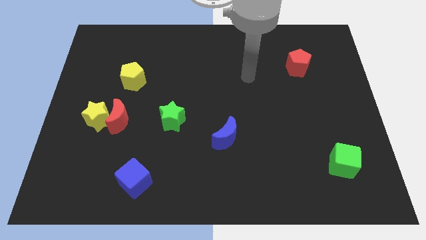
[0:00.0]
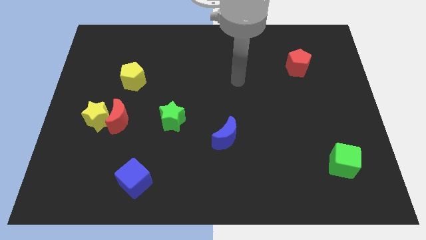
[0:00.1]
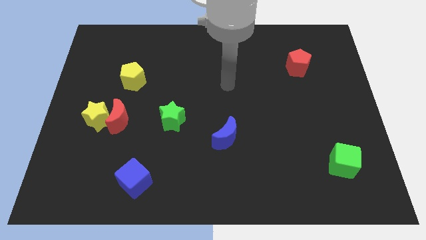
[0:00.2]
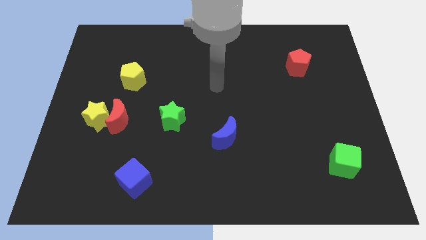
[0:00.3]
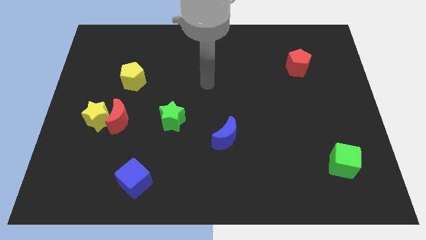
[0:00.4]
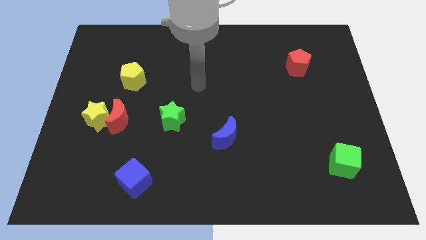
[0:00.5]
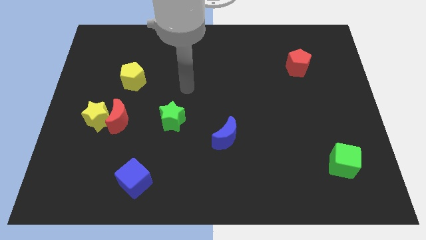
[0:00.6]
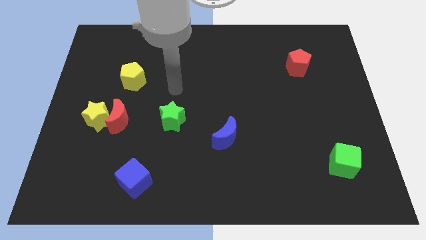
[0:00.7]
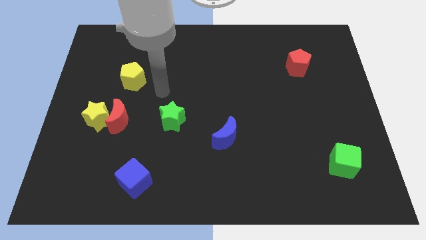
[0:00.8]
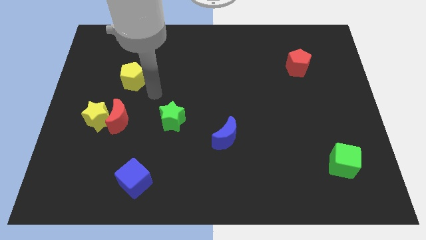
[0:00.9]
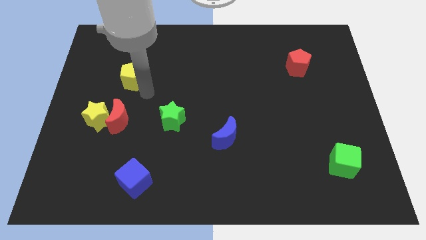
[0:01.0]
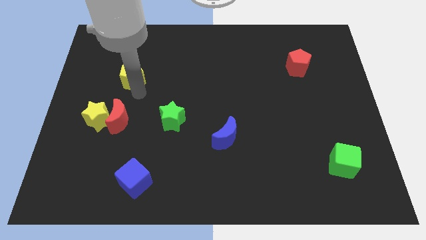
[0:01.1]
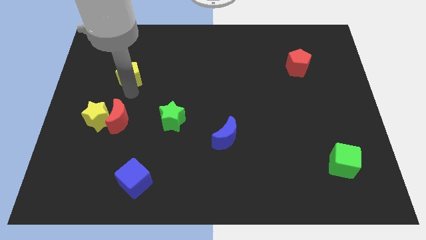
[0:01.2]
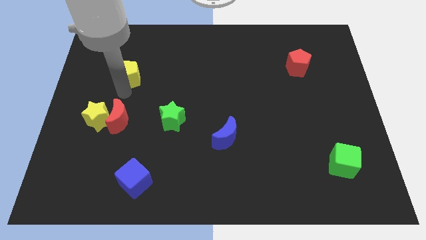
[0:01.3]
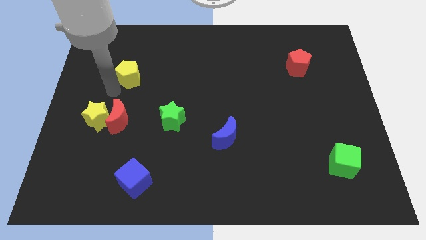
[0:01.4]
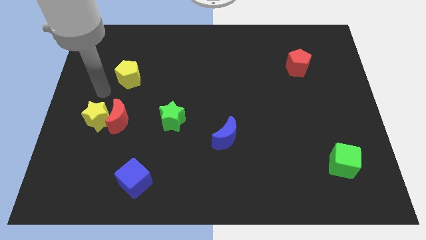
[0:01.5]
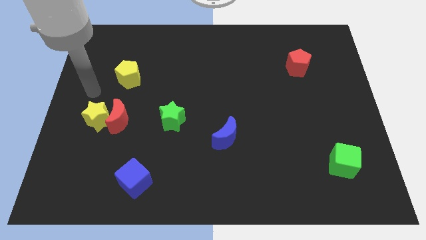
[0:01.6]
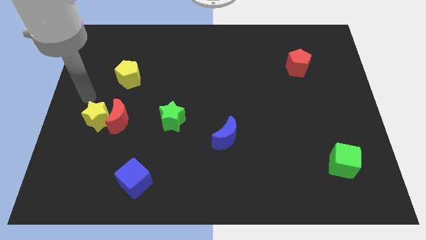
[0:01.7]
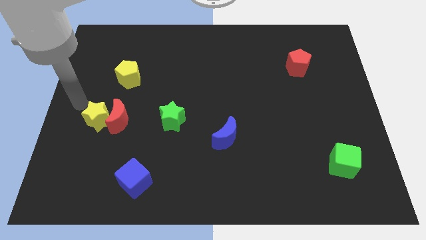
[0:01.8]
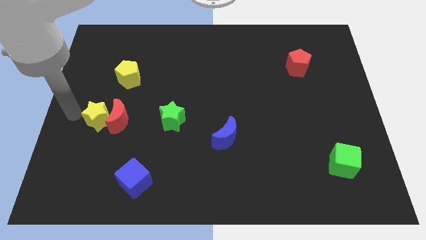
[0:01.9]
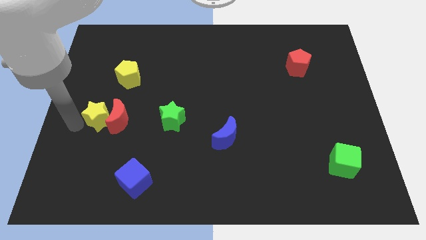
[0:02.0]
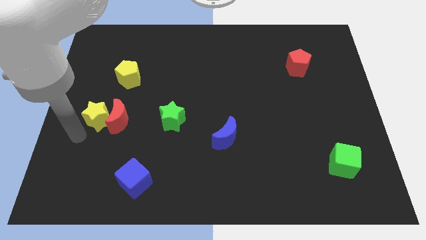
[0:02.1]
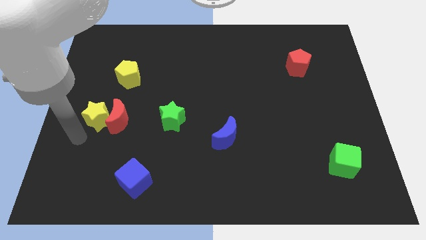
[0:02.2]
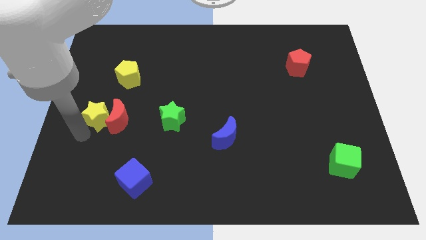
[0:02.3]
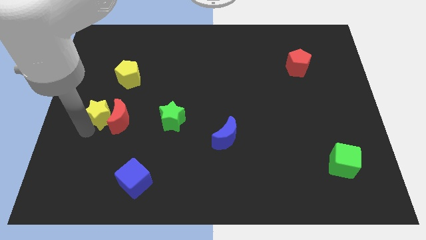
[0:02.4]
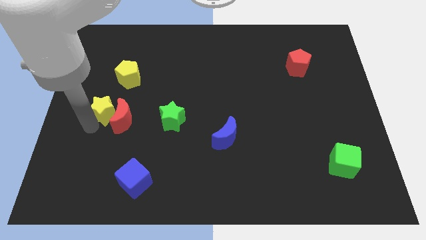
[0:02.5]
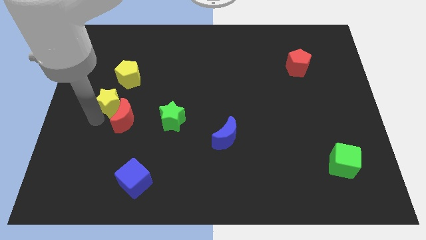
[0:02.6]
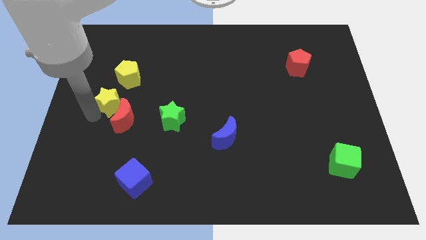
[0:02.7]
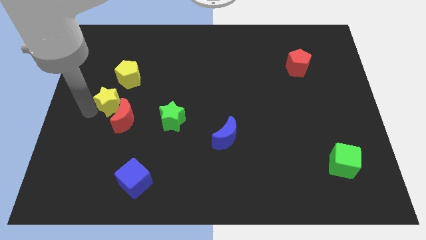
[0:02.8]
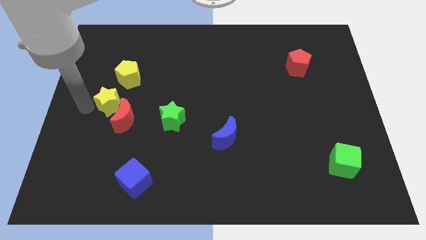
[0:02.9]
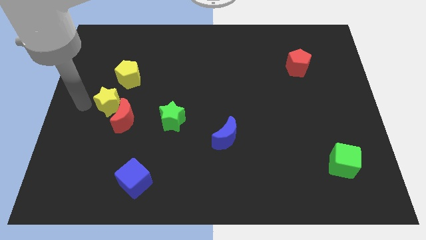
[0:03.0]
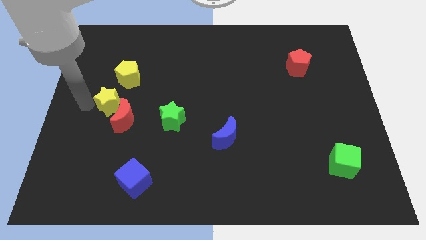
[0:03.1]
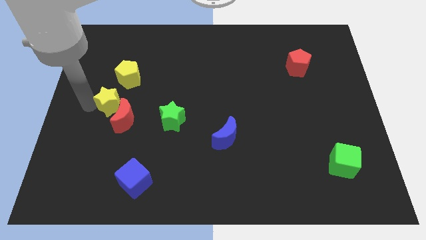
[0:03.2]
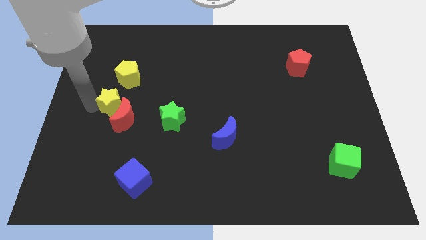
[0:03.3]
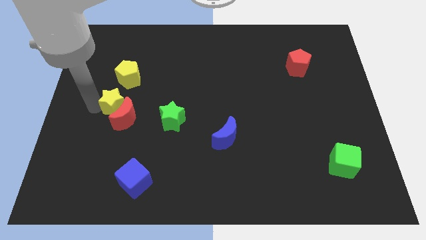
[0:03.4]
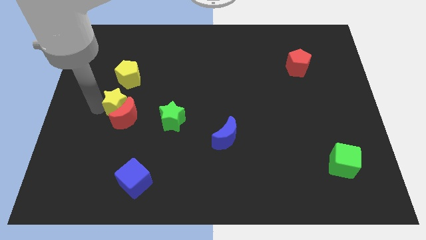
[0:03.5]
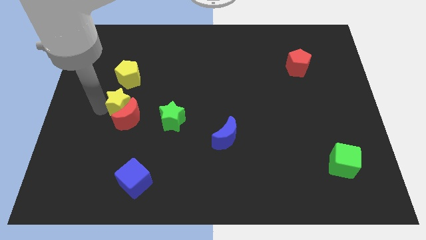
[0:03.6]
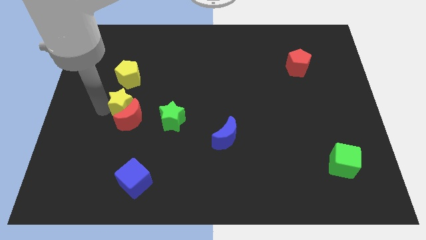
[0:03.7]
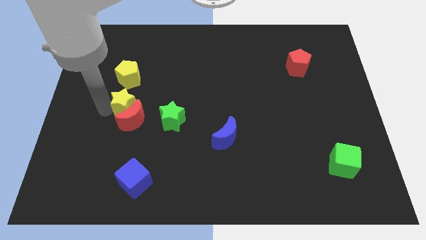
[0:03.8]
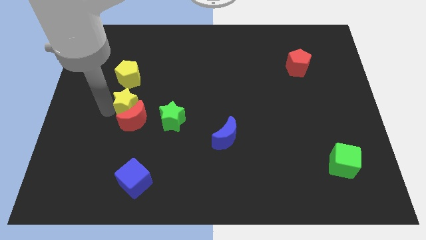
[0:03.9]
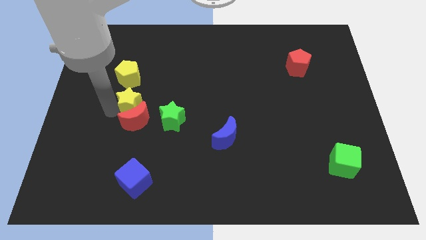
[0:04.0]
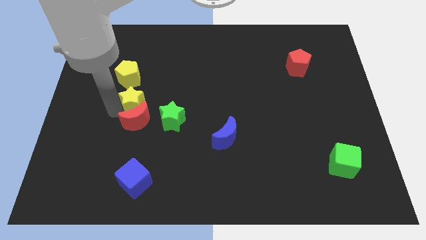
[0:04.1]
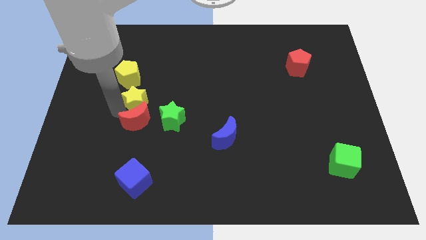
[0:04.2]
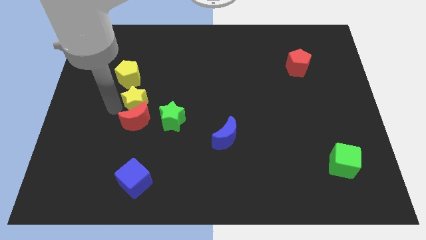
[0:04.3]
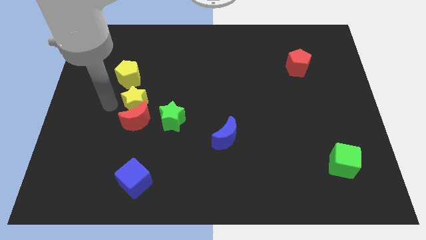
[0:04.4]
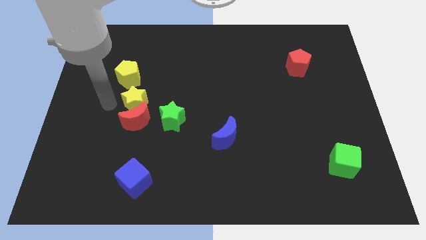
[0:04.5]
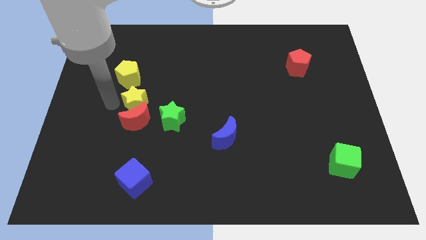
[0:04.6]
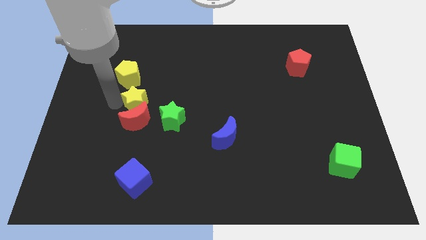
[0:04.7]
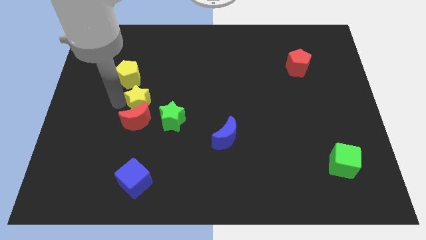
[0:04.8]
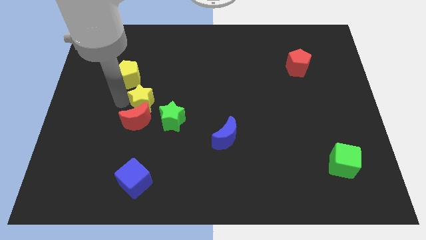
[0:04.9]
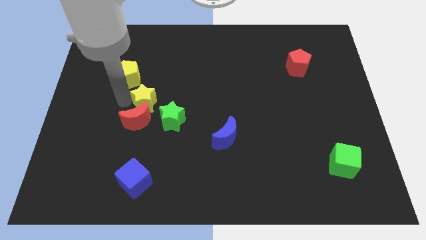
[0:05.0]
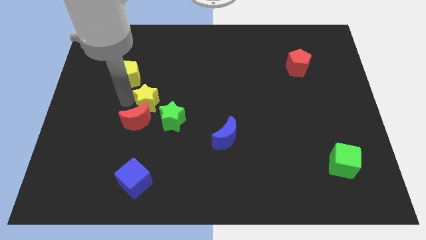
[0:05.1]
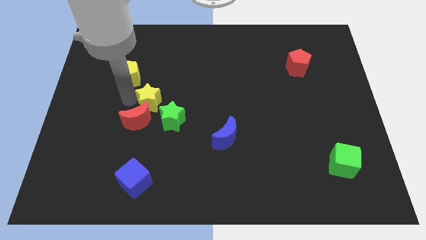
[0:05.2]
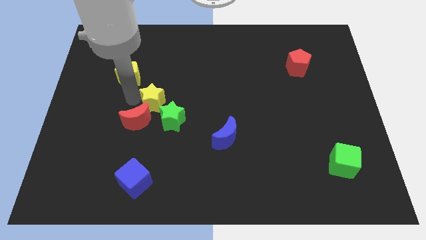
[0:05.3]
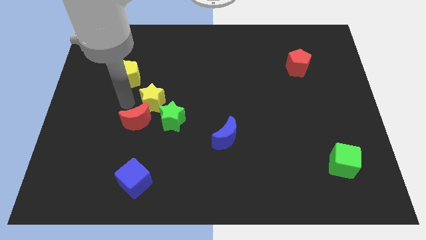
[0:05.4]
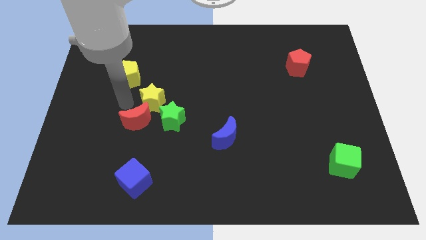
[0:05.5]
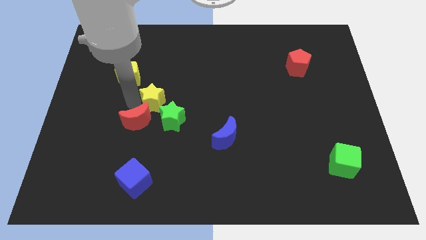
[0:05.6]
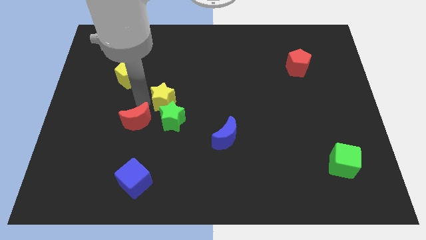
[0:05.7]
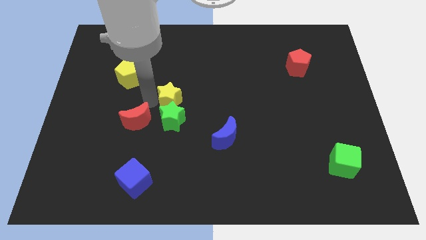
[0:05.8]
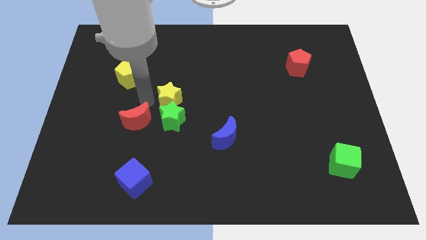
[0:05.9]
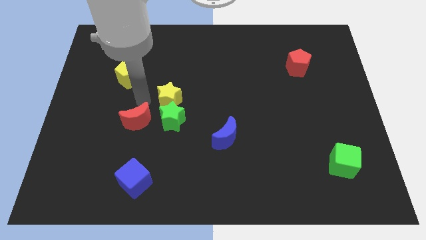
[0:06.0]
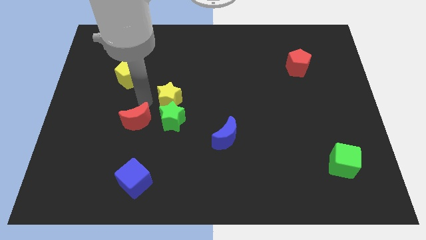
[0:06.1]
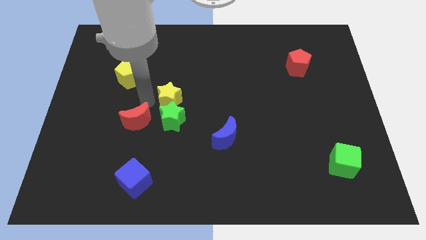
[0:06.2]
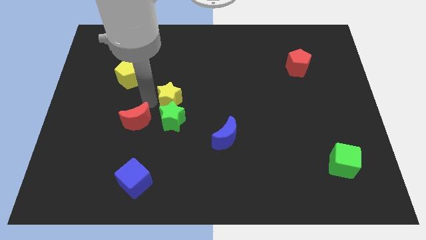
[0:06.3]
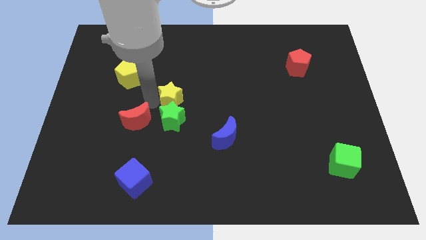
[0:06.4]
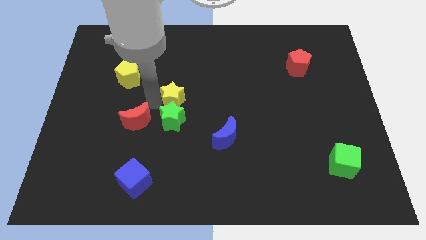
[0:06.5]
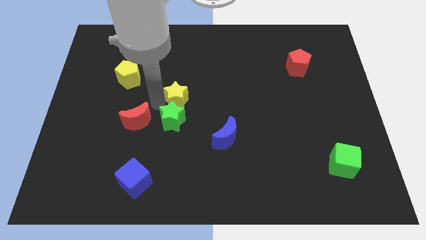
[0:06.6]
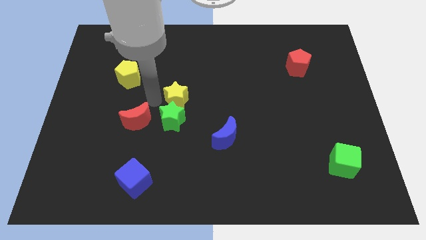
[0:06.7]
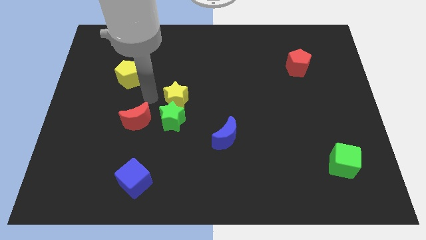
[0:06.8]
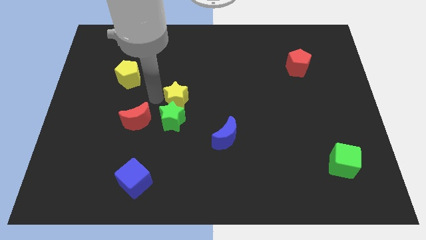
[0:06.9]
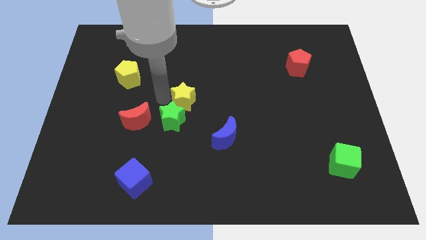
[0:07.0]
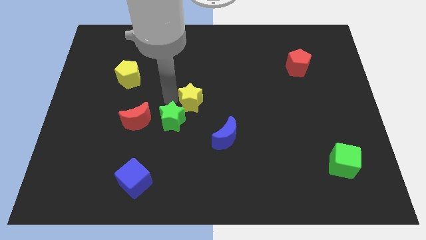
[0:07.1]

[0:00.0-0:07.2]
push the yellow star right

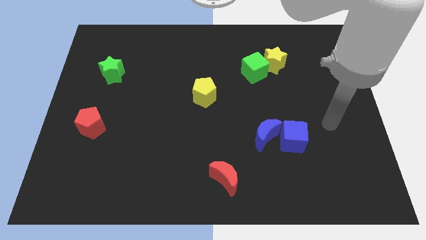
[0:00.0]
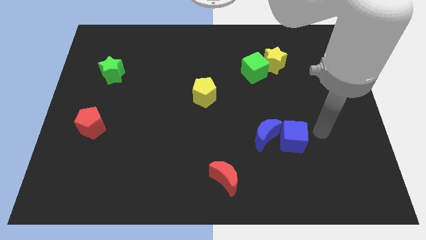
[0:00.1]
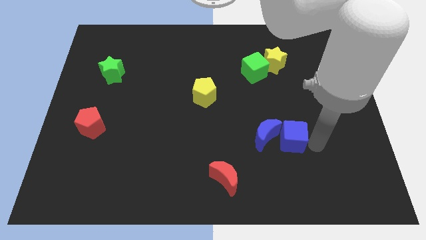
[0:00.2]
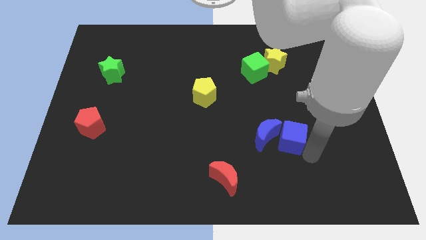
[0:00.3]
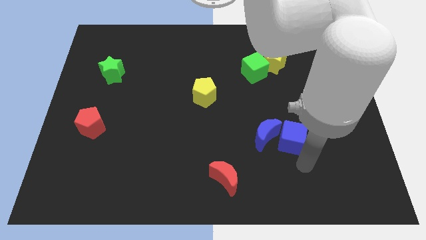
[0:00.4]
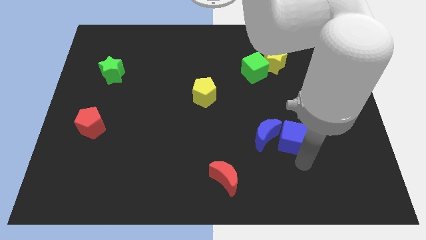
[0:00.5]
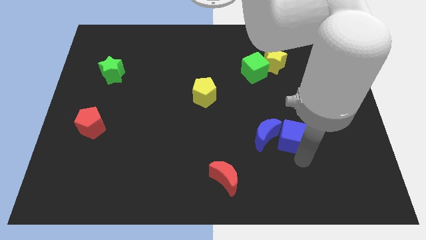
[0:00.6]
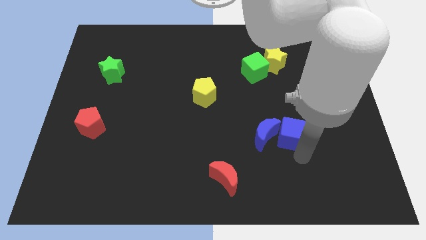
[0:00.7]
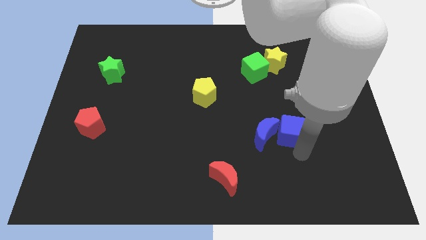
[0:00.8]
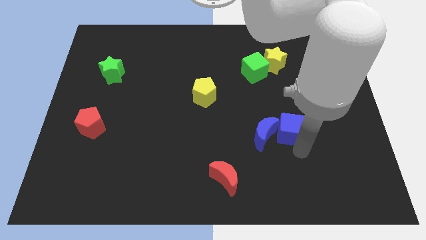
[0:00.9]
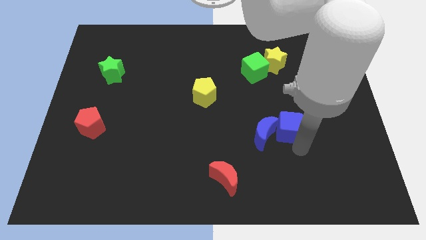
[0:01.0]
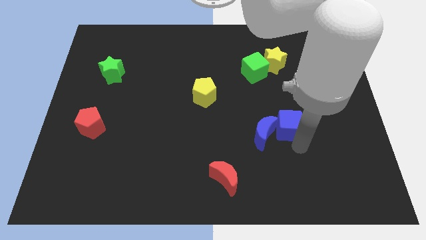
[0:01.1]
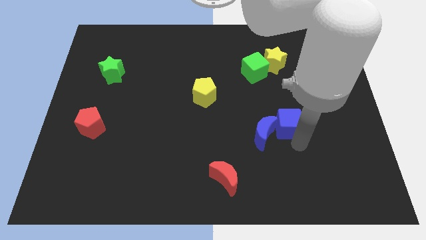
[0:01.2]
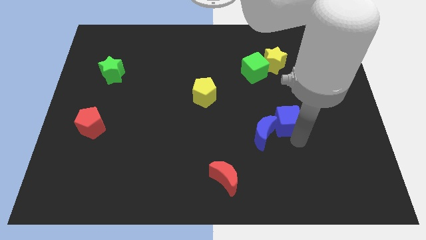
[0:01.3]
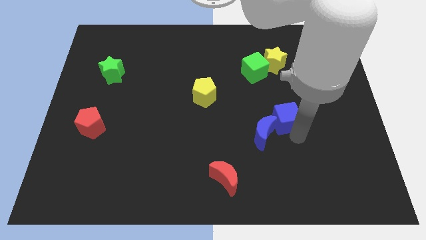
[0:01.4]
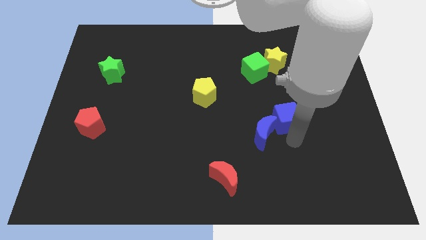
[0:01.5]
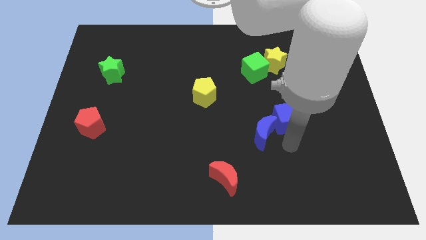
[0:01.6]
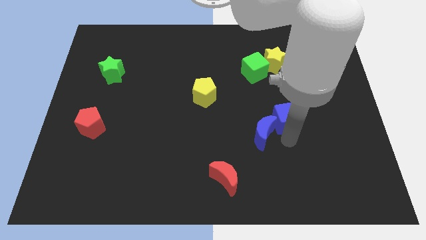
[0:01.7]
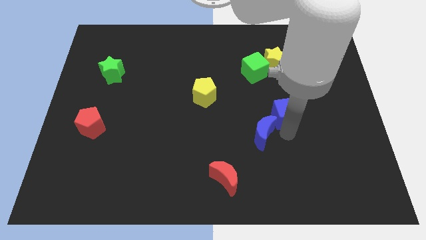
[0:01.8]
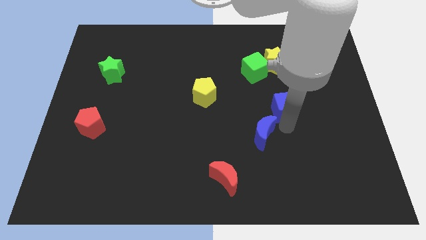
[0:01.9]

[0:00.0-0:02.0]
slightly move the blue cube upwards
